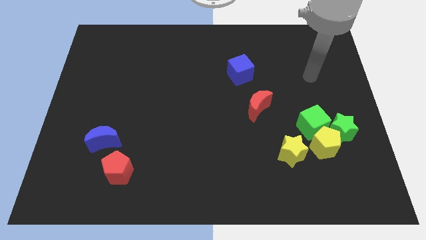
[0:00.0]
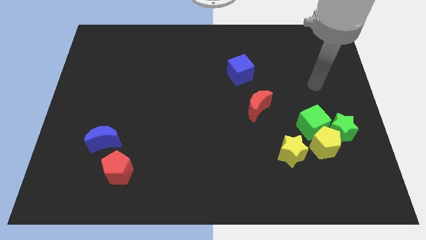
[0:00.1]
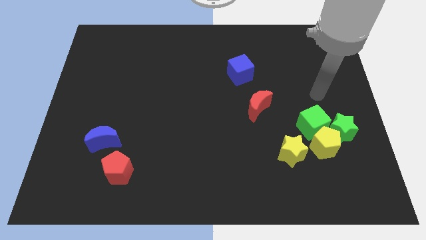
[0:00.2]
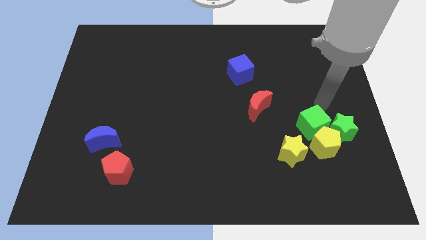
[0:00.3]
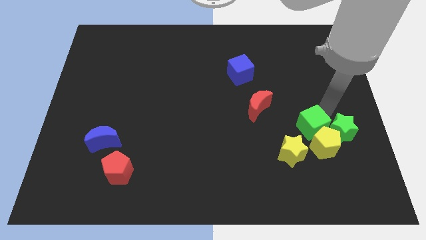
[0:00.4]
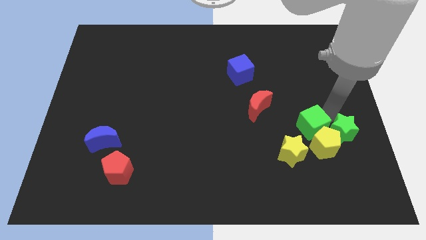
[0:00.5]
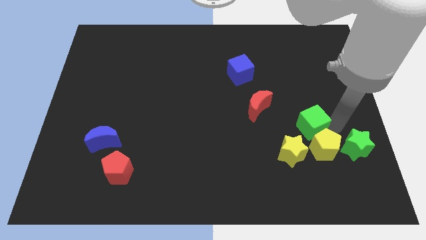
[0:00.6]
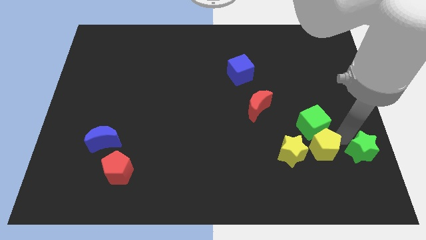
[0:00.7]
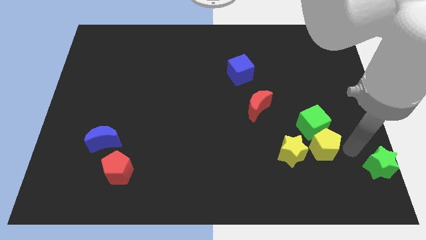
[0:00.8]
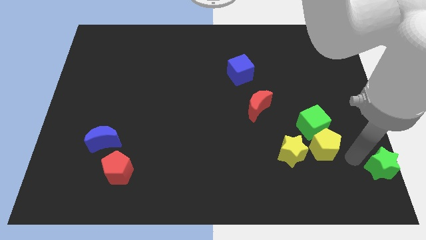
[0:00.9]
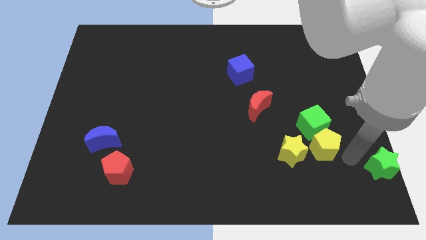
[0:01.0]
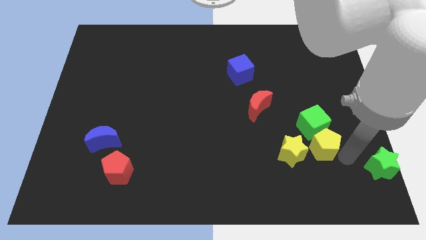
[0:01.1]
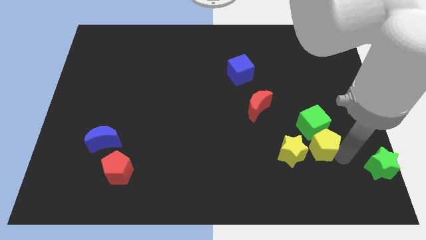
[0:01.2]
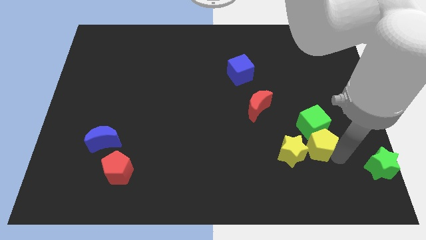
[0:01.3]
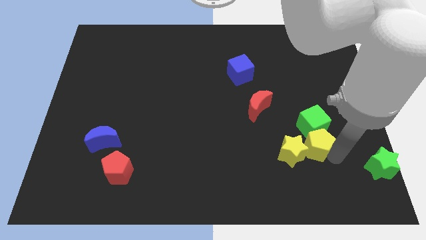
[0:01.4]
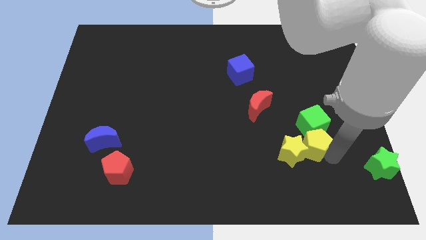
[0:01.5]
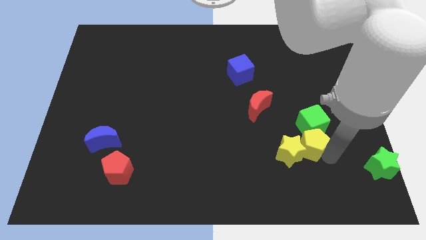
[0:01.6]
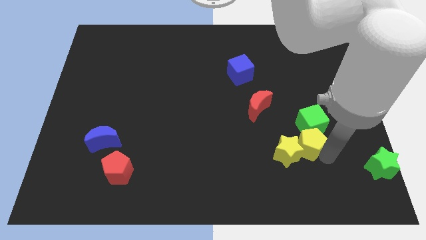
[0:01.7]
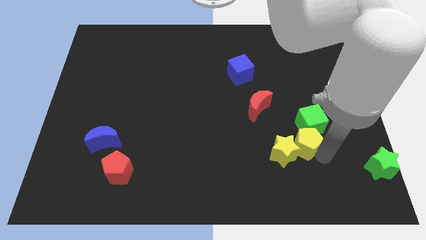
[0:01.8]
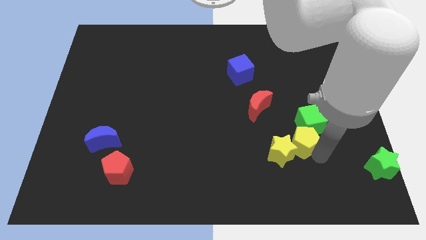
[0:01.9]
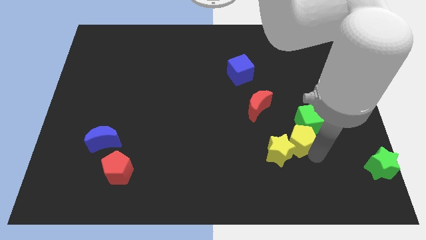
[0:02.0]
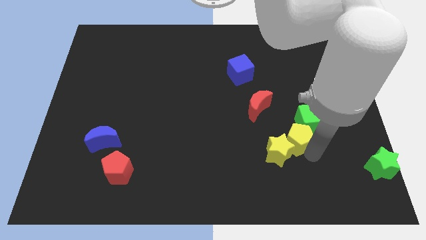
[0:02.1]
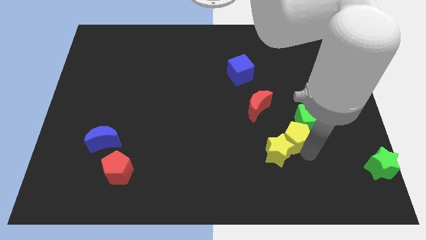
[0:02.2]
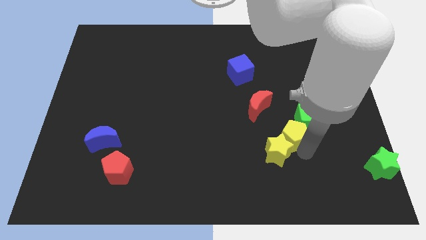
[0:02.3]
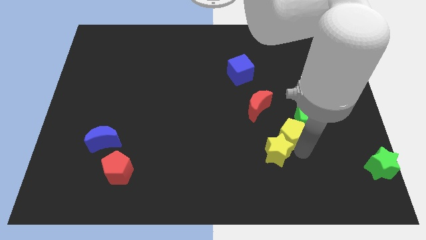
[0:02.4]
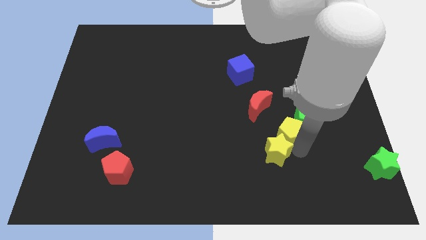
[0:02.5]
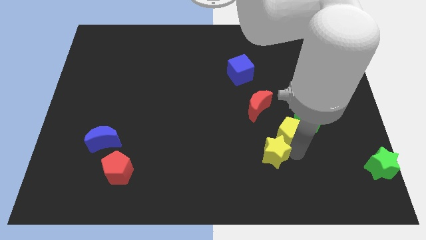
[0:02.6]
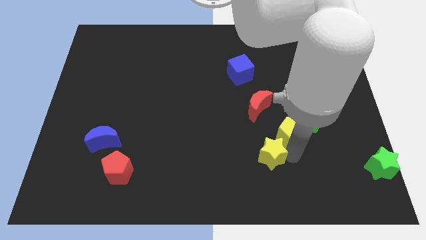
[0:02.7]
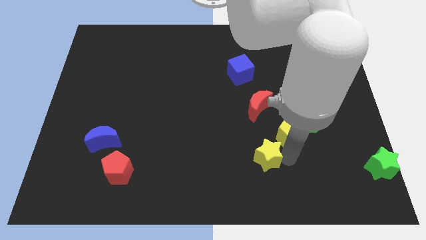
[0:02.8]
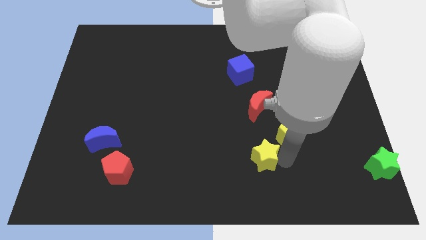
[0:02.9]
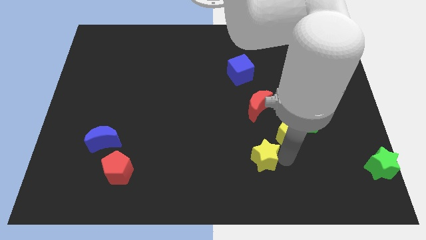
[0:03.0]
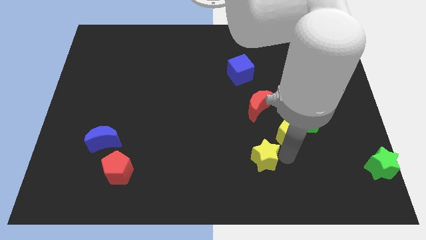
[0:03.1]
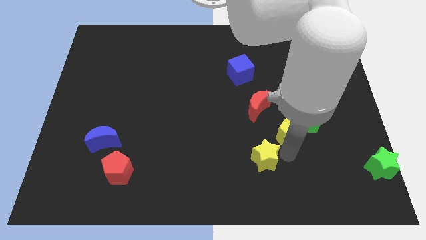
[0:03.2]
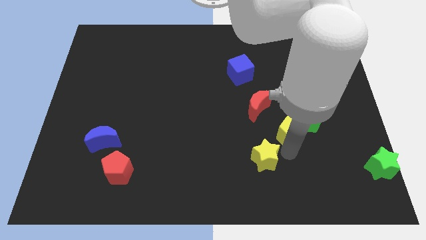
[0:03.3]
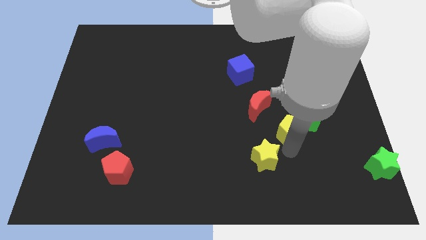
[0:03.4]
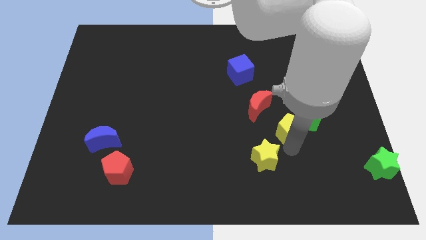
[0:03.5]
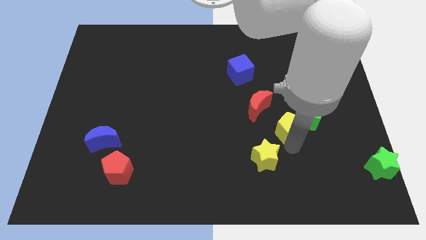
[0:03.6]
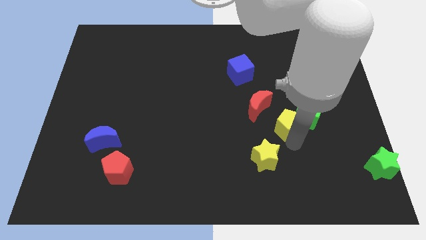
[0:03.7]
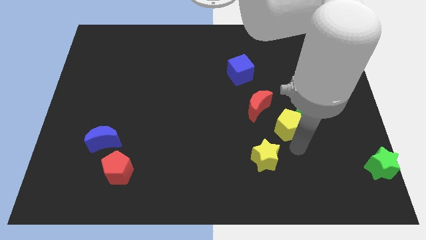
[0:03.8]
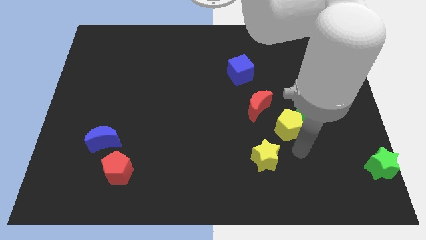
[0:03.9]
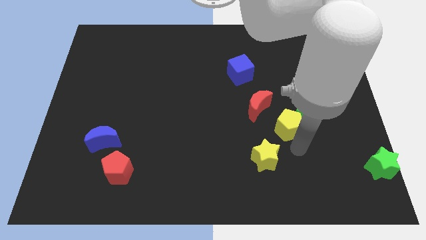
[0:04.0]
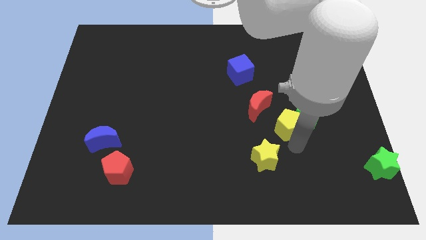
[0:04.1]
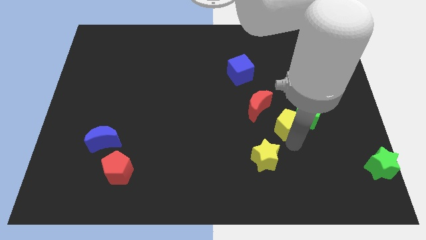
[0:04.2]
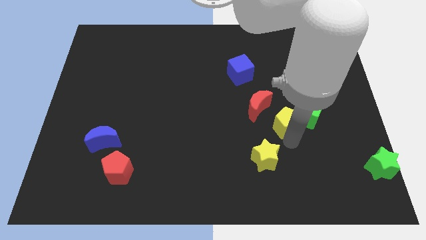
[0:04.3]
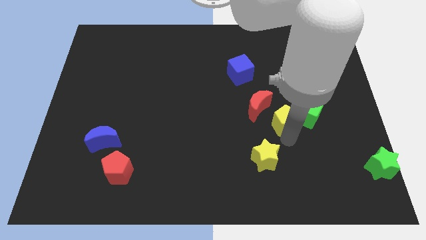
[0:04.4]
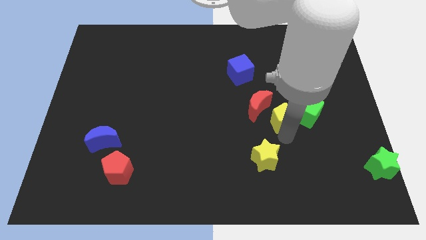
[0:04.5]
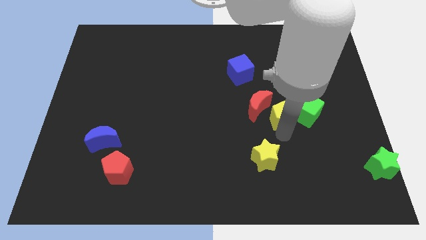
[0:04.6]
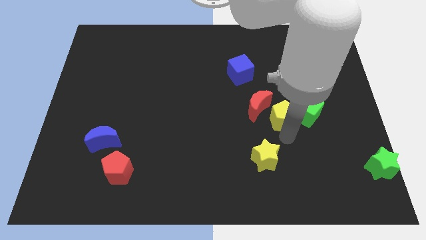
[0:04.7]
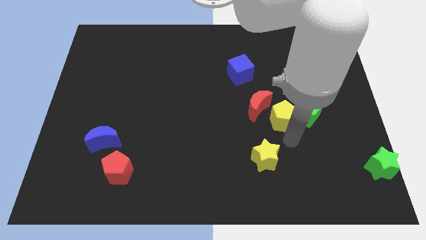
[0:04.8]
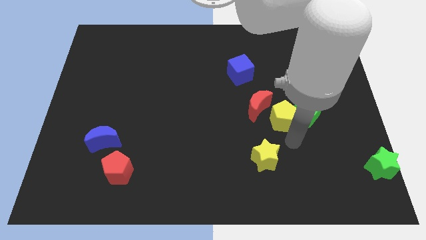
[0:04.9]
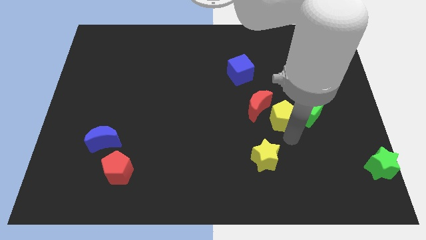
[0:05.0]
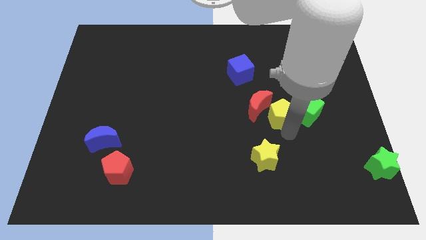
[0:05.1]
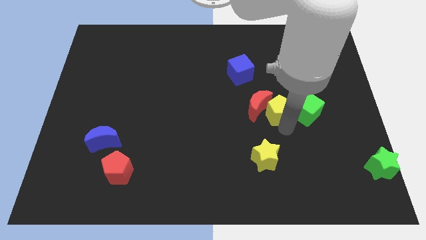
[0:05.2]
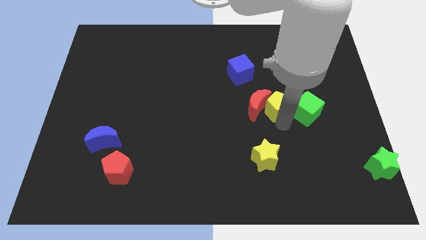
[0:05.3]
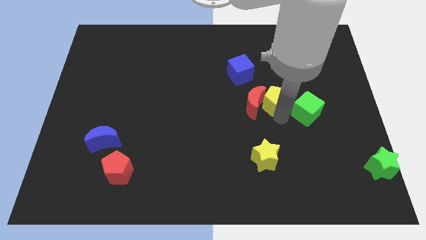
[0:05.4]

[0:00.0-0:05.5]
move the yellow pentagon to the bottom right of the blue cube

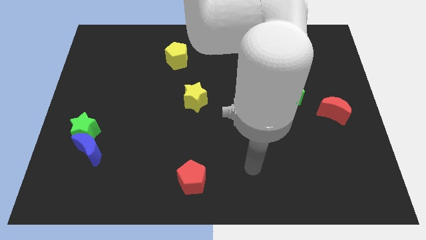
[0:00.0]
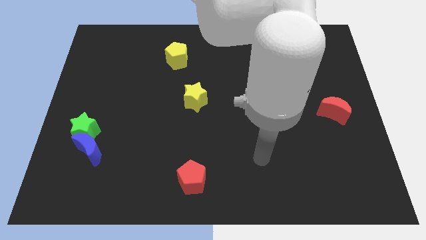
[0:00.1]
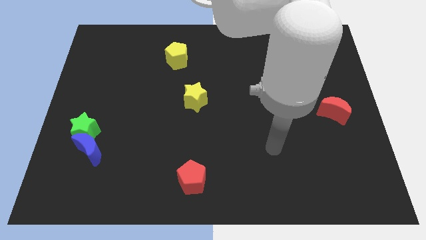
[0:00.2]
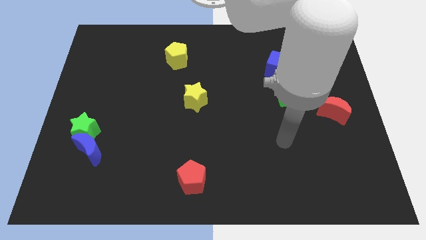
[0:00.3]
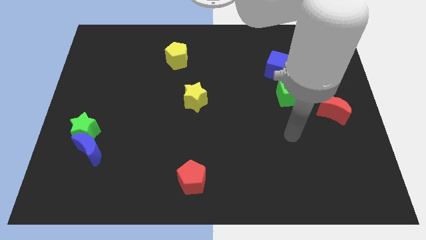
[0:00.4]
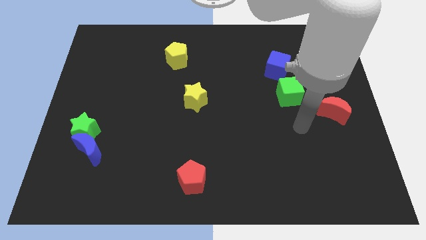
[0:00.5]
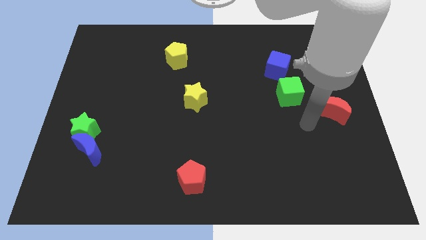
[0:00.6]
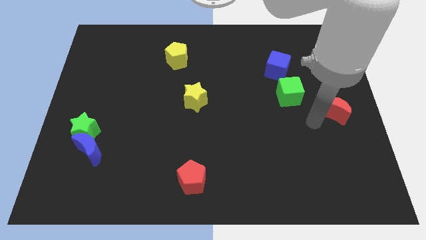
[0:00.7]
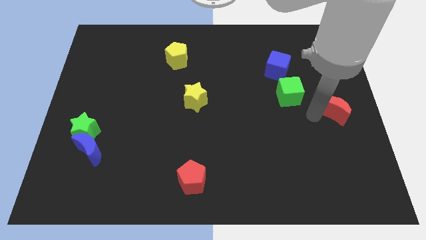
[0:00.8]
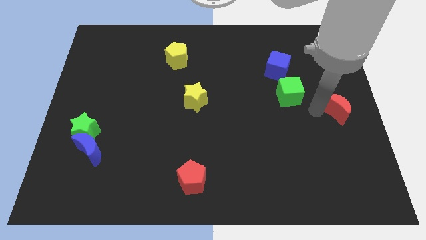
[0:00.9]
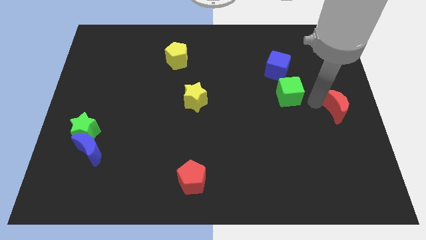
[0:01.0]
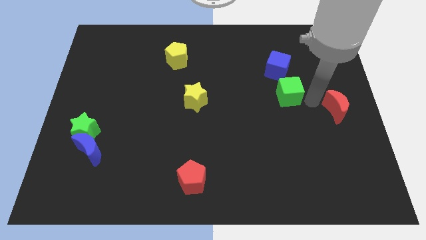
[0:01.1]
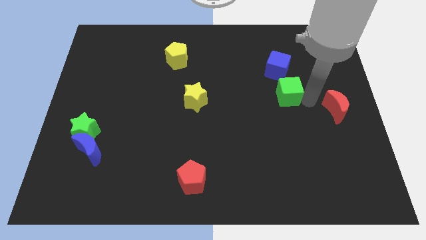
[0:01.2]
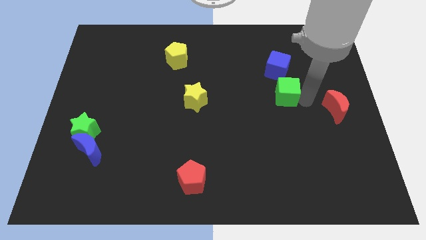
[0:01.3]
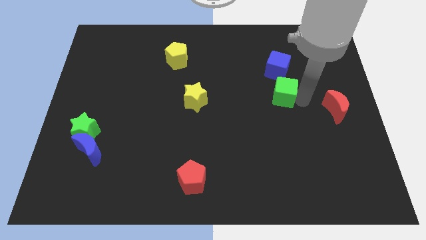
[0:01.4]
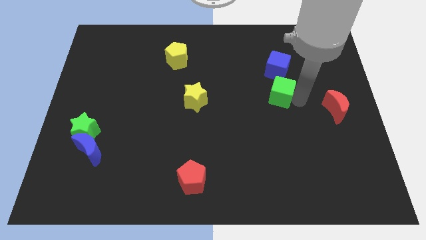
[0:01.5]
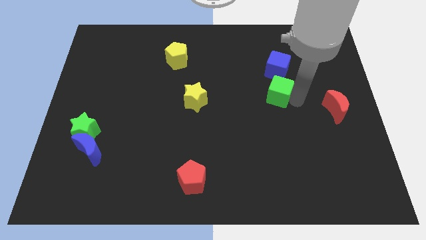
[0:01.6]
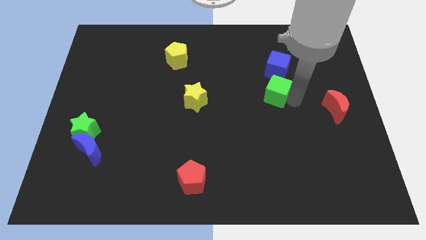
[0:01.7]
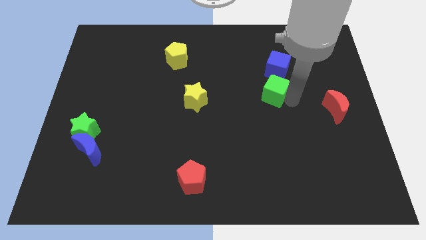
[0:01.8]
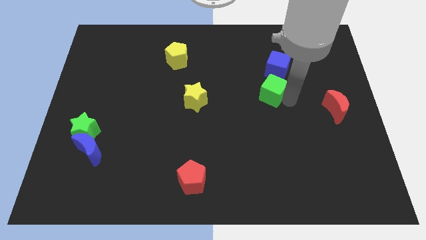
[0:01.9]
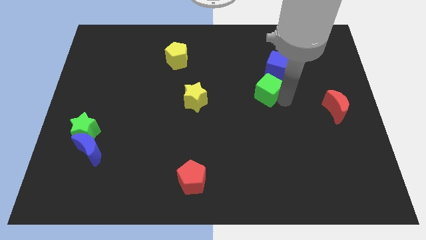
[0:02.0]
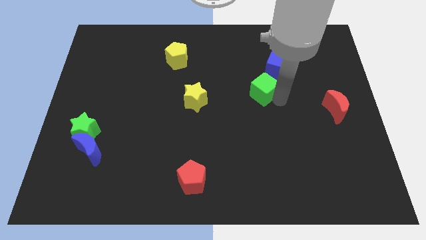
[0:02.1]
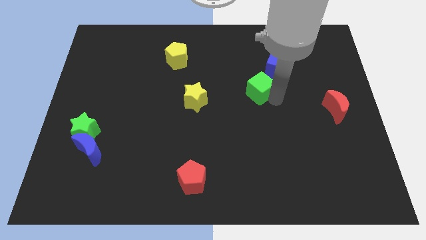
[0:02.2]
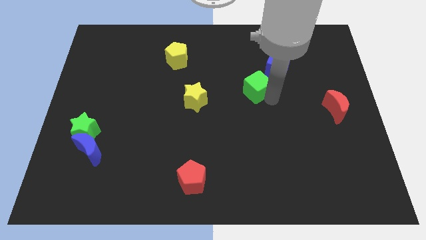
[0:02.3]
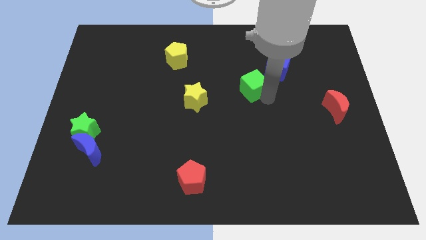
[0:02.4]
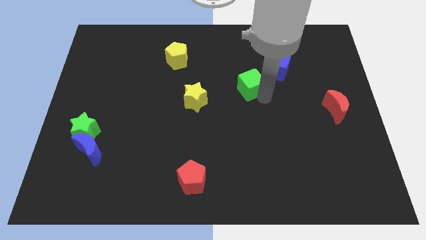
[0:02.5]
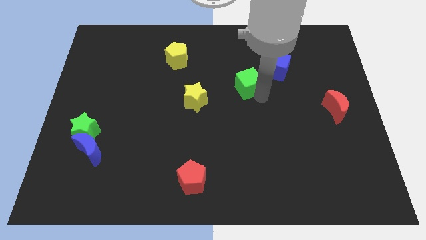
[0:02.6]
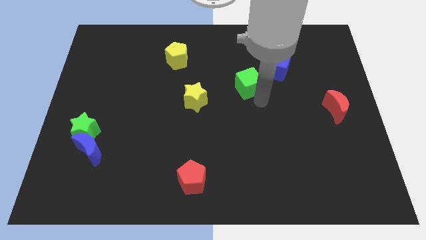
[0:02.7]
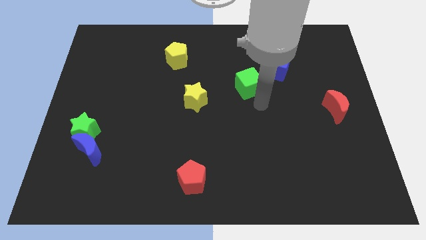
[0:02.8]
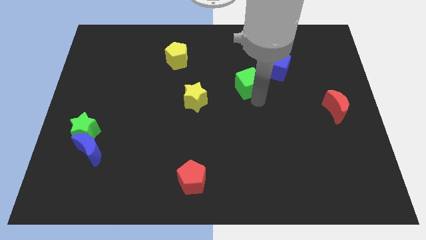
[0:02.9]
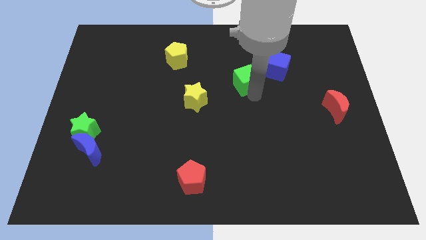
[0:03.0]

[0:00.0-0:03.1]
slide the green cube to the left side of the blue cube
